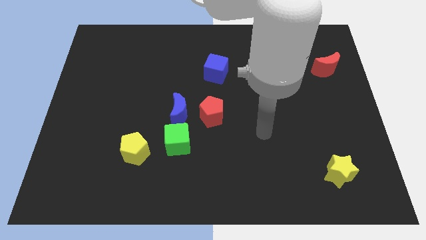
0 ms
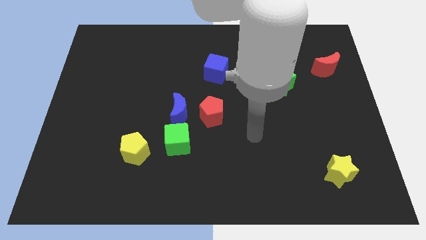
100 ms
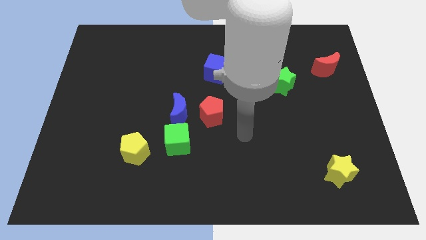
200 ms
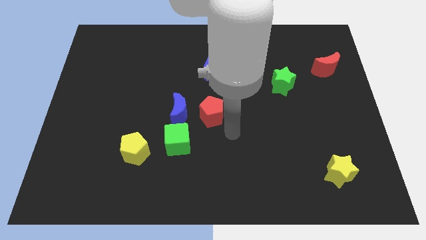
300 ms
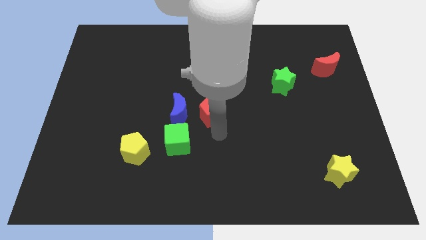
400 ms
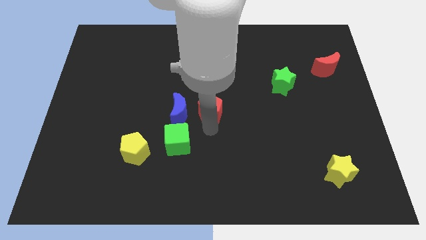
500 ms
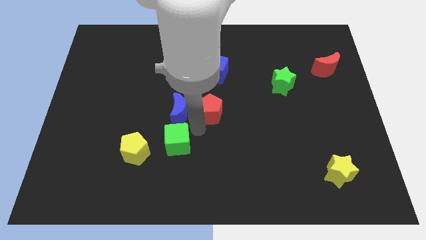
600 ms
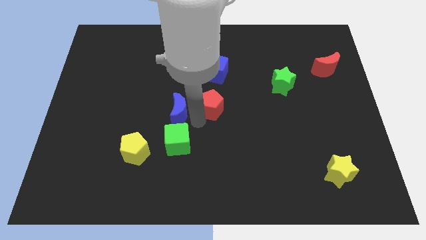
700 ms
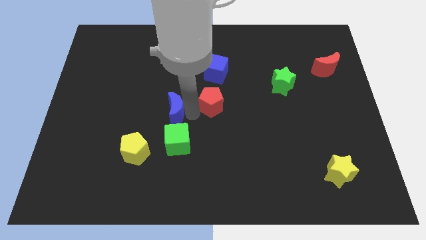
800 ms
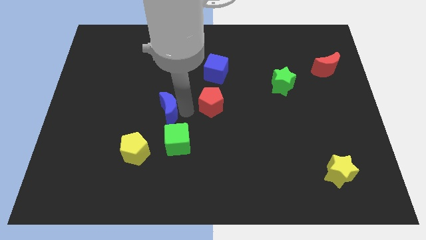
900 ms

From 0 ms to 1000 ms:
separate the red pentagon from the blue moon

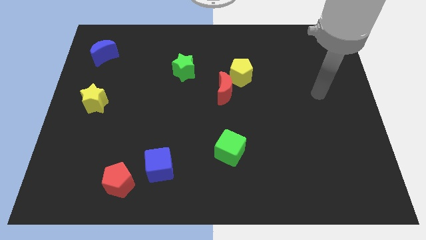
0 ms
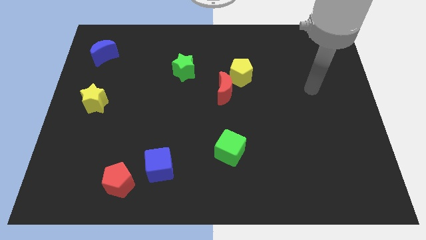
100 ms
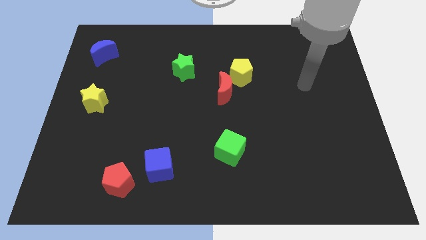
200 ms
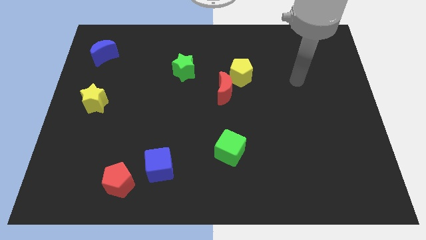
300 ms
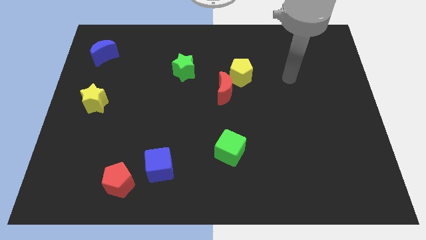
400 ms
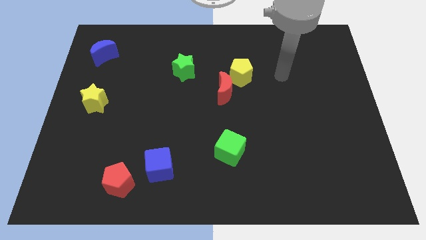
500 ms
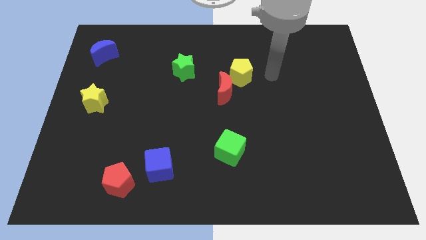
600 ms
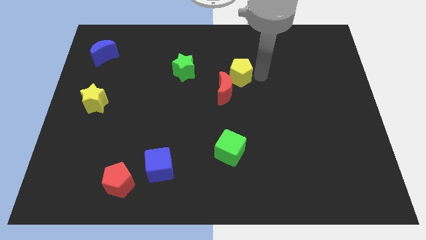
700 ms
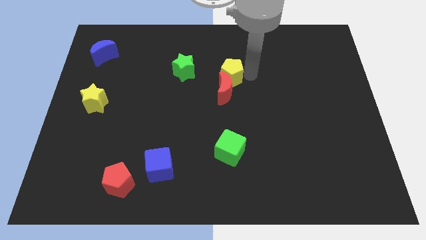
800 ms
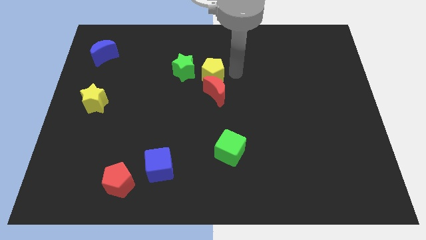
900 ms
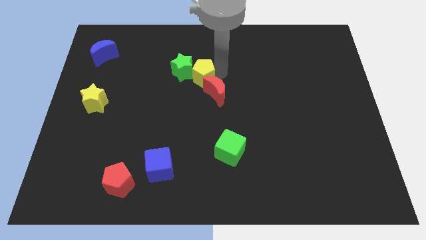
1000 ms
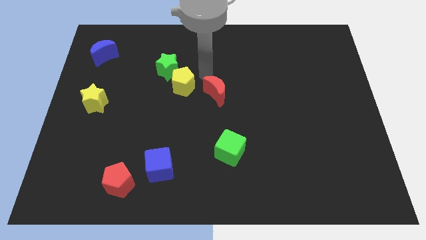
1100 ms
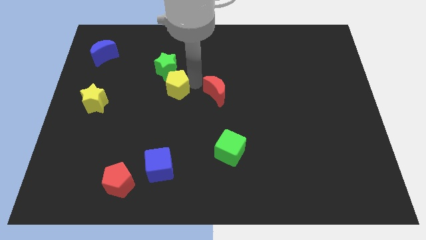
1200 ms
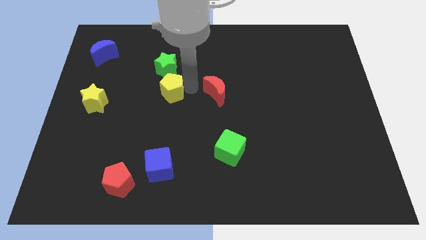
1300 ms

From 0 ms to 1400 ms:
move the red moon away from the yellow pentagon

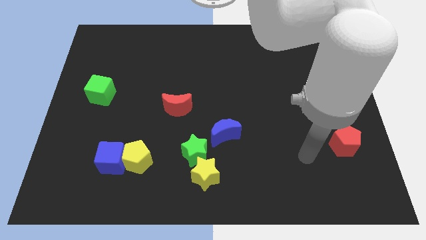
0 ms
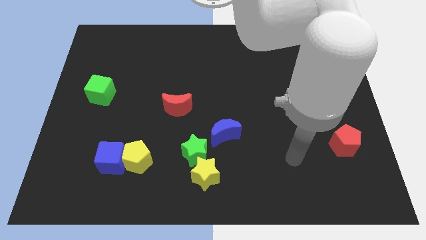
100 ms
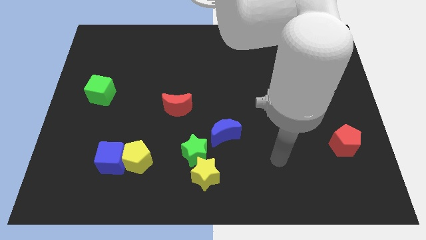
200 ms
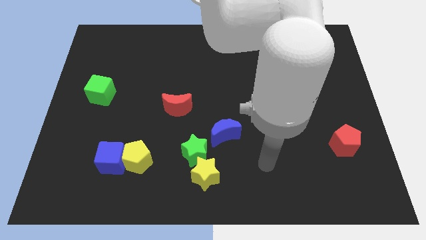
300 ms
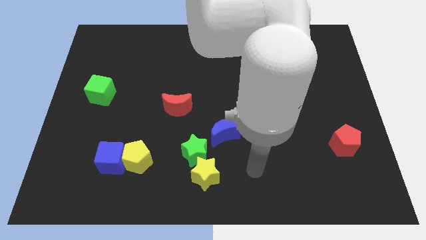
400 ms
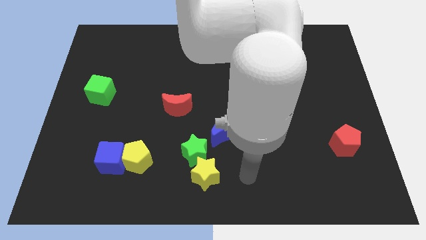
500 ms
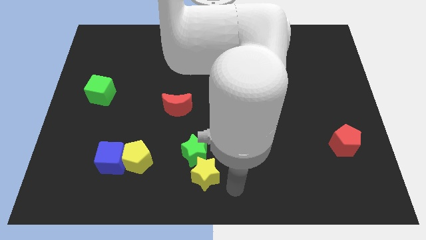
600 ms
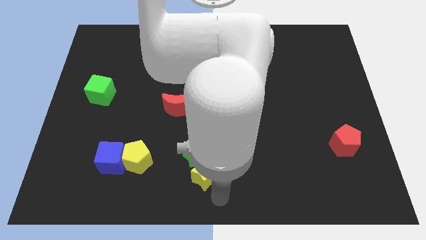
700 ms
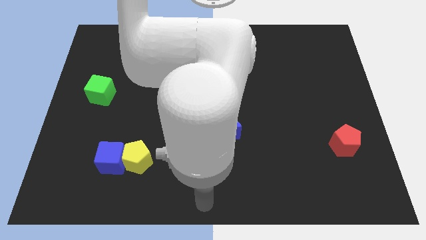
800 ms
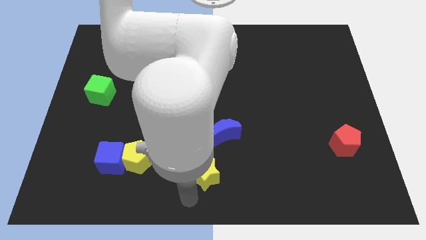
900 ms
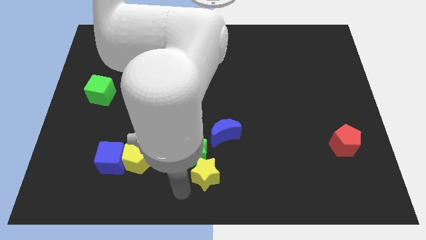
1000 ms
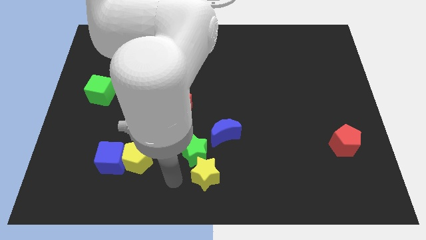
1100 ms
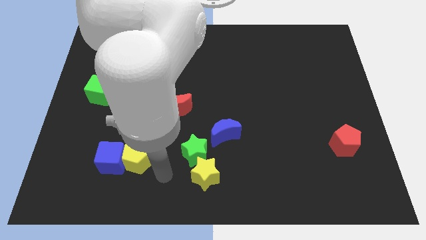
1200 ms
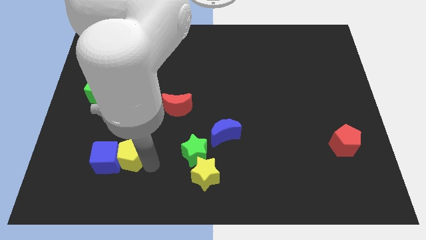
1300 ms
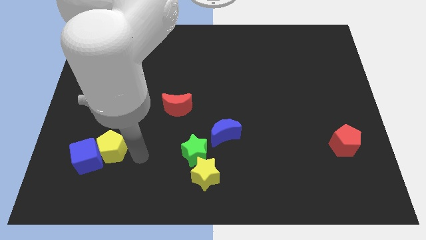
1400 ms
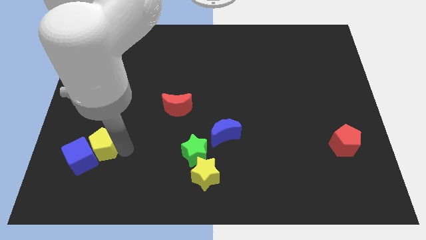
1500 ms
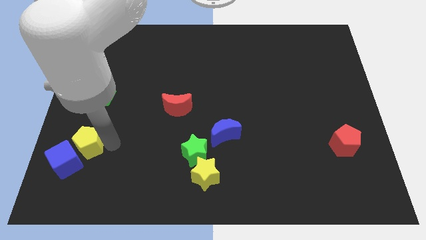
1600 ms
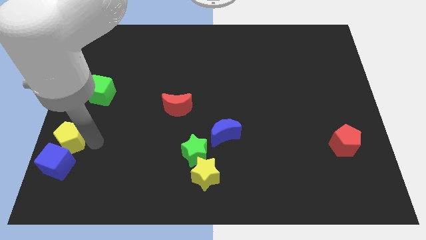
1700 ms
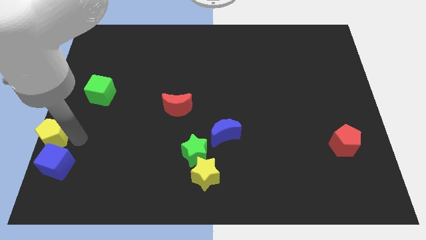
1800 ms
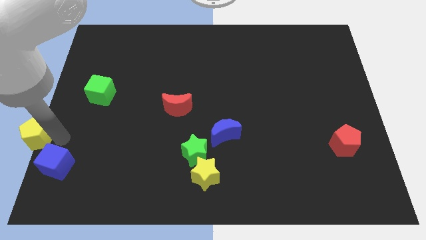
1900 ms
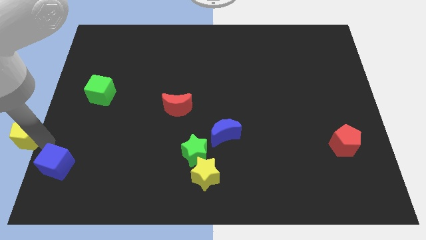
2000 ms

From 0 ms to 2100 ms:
separate the blue cube from the yellow pentagon

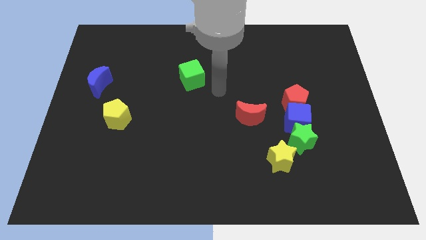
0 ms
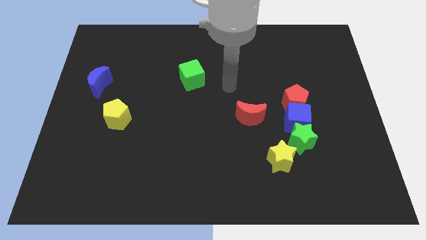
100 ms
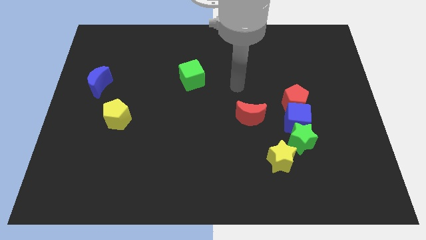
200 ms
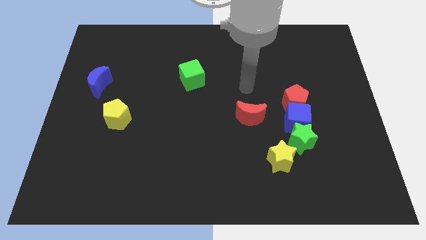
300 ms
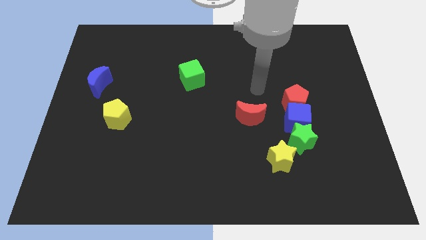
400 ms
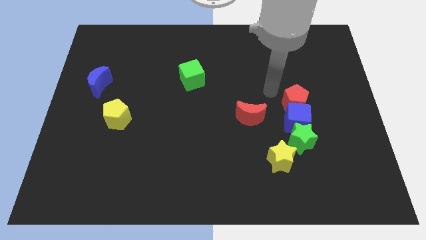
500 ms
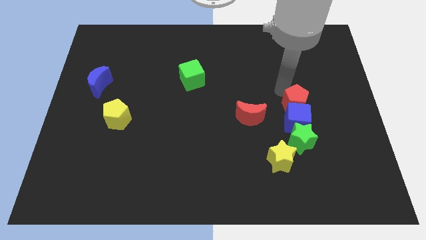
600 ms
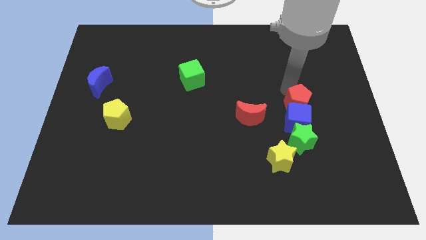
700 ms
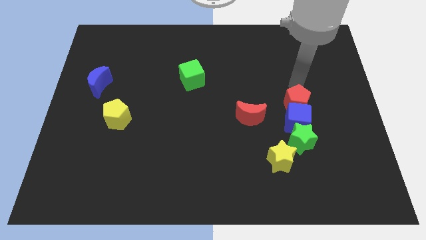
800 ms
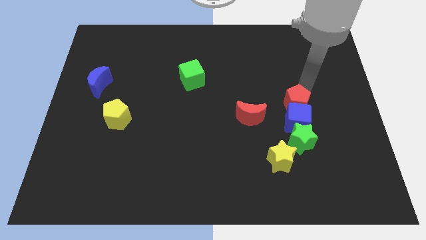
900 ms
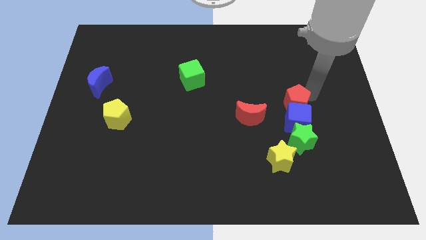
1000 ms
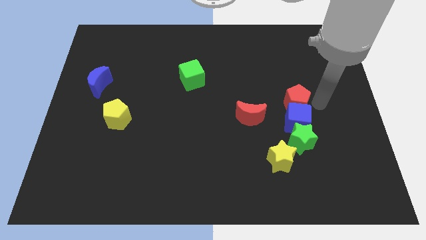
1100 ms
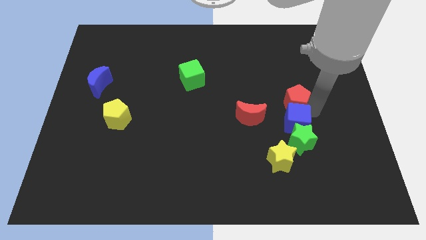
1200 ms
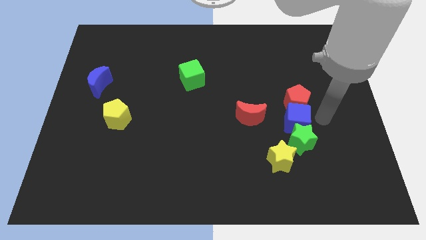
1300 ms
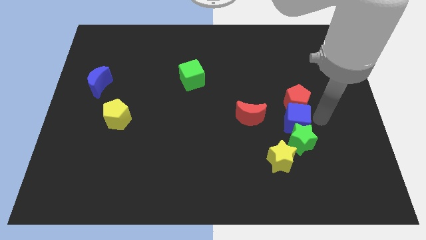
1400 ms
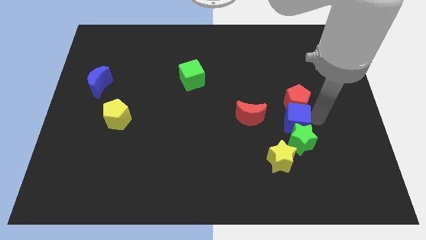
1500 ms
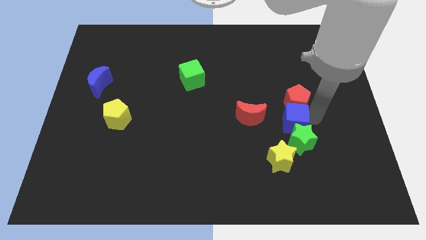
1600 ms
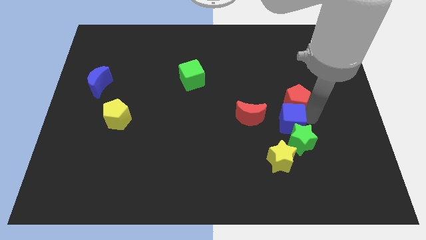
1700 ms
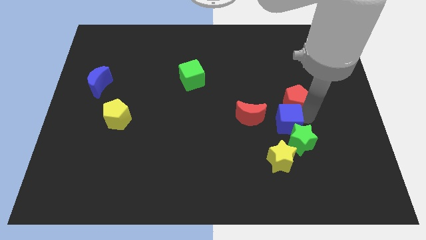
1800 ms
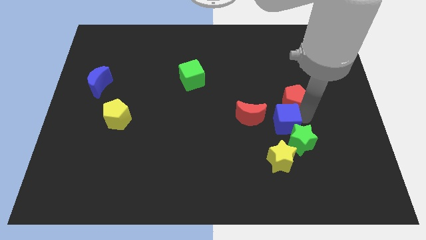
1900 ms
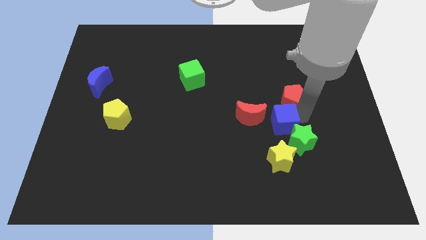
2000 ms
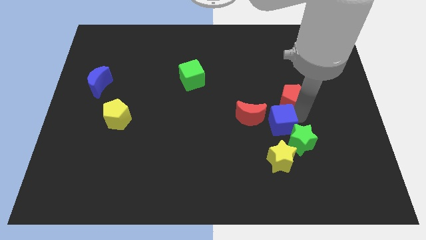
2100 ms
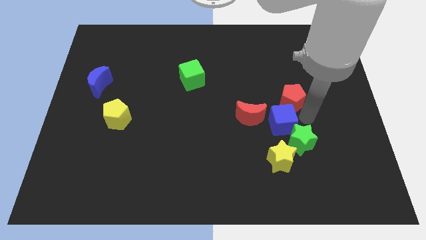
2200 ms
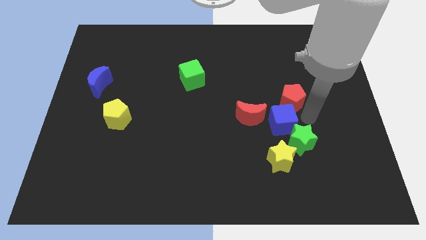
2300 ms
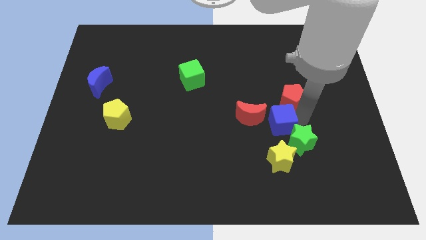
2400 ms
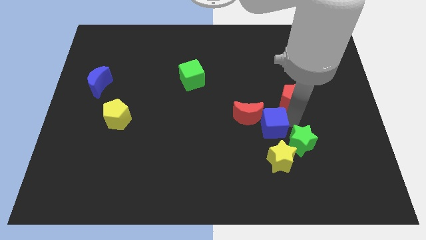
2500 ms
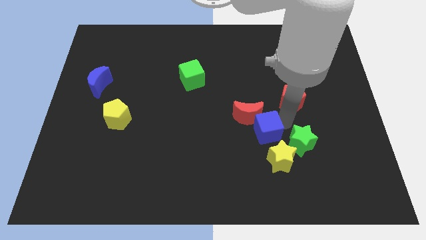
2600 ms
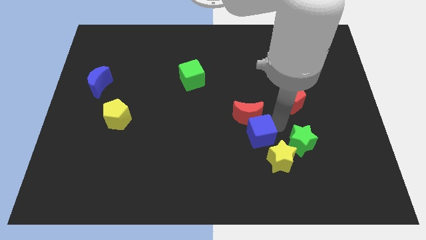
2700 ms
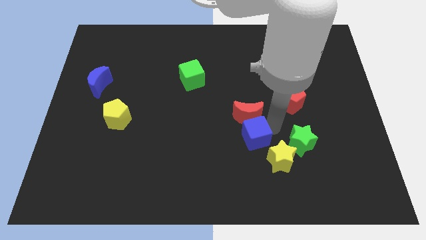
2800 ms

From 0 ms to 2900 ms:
pull the blue cube apart from the green star and red pentagon

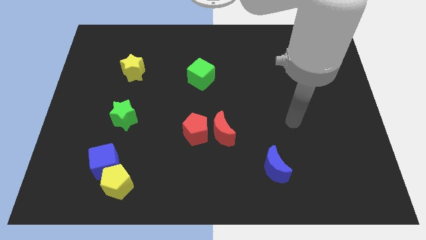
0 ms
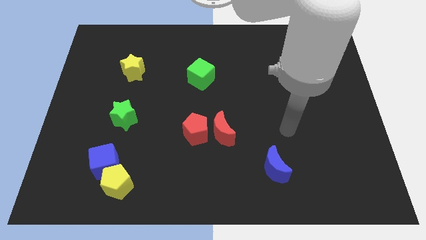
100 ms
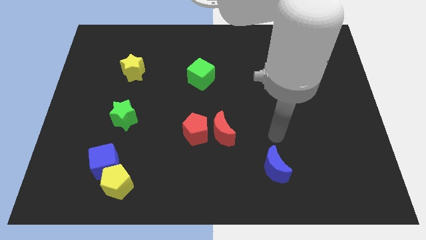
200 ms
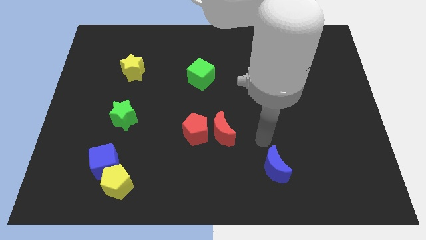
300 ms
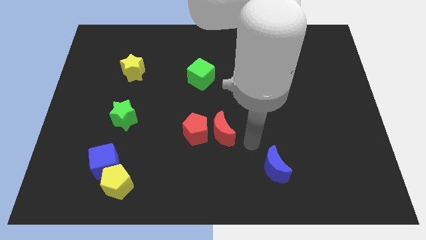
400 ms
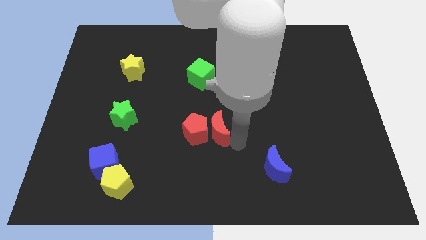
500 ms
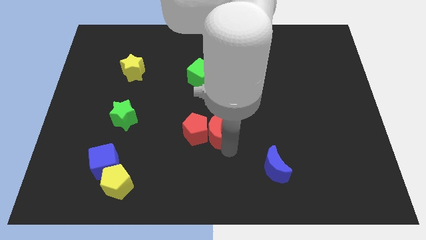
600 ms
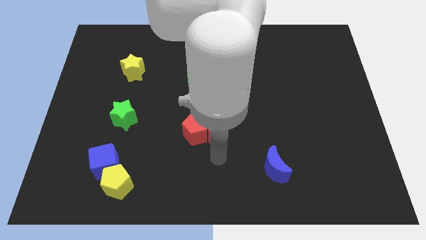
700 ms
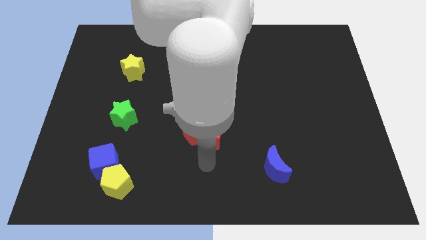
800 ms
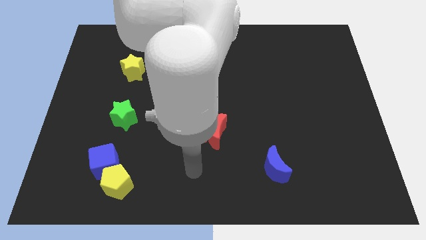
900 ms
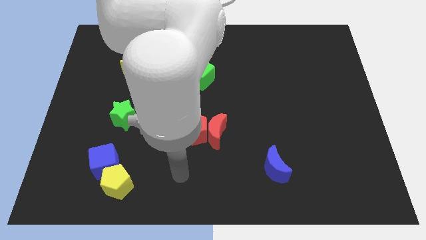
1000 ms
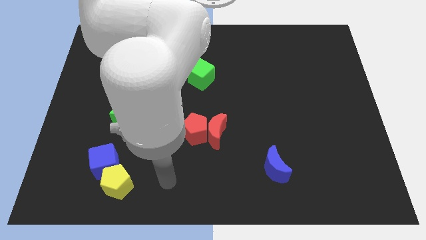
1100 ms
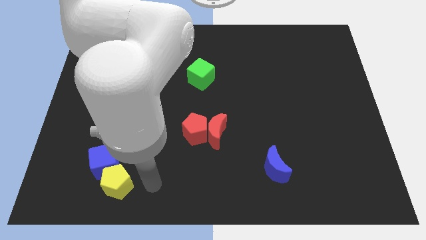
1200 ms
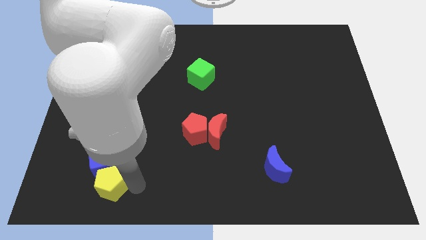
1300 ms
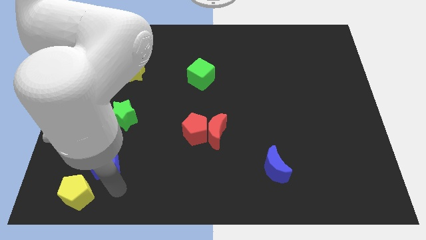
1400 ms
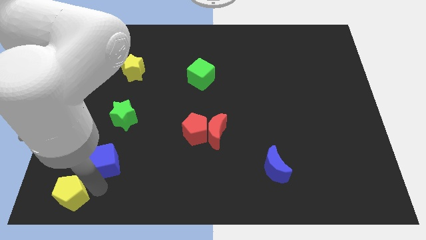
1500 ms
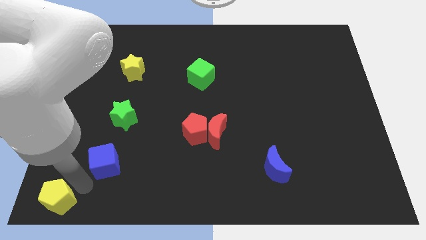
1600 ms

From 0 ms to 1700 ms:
move the blue cube away from the yellow pentagon

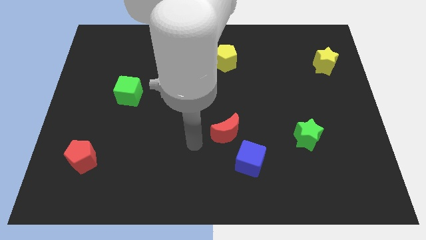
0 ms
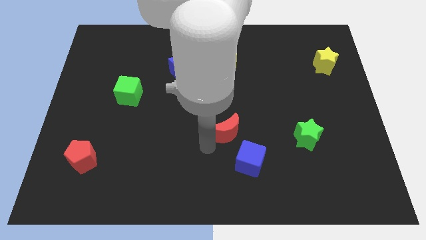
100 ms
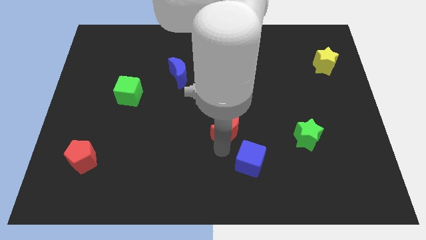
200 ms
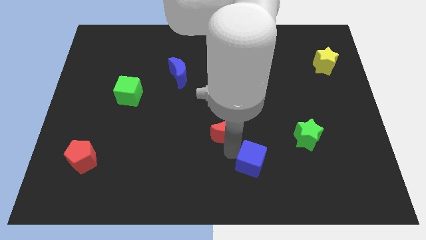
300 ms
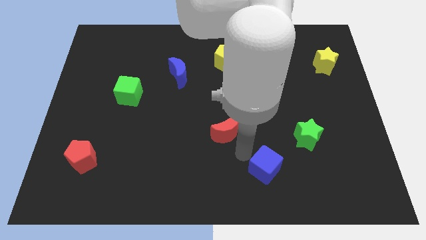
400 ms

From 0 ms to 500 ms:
separate the red moon from the blue cube
